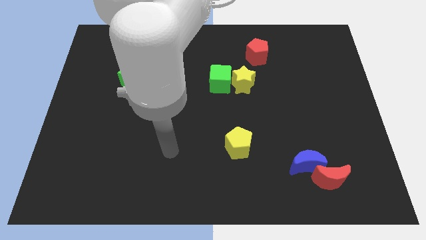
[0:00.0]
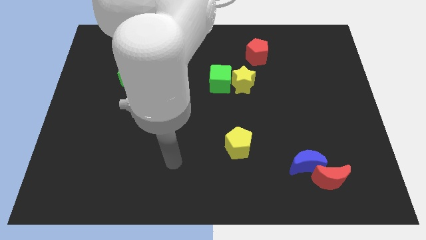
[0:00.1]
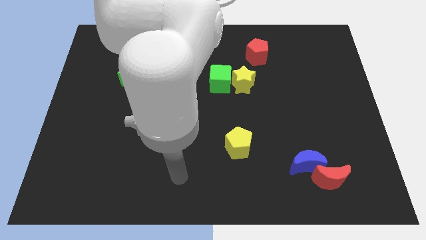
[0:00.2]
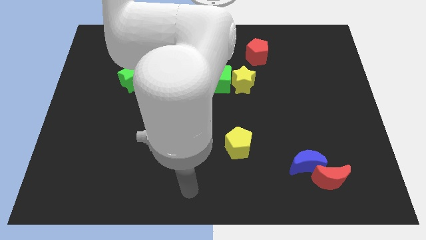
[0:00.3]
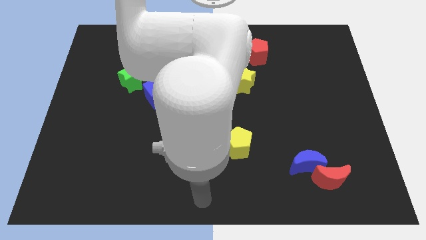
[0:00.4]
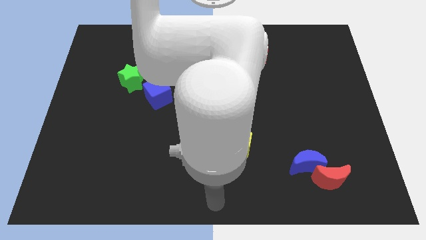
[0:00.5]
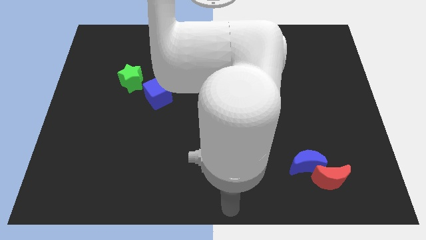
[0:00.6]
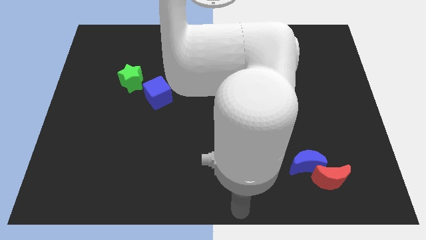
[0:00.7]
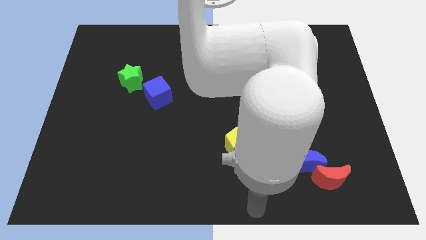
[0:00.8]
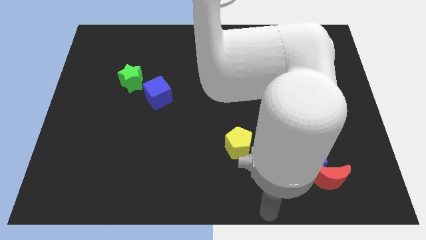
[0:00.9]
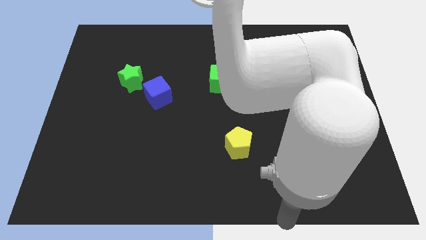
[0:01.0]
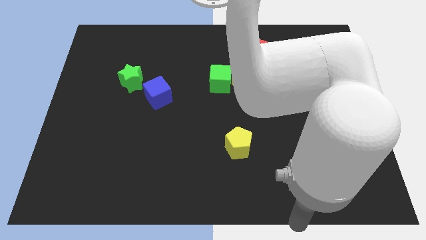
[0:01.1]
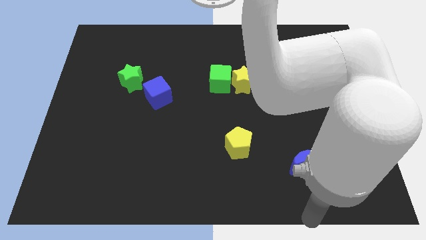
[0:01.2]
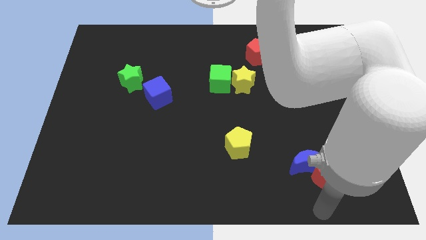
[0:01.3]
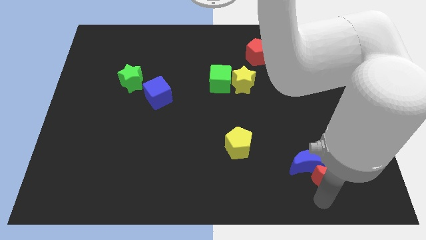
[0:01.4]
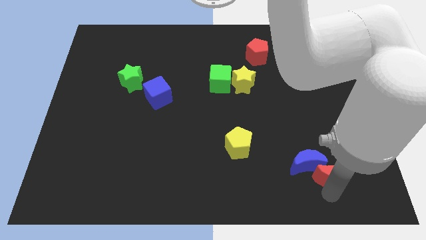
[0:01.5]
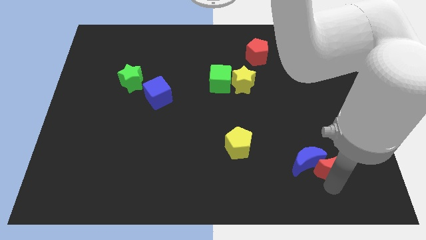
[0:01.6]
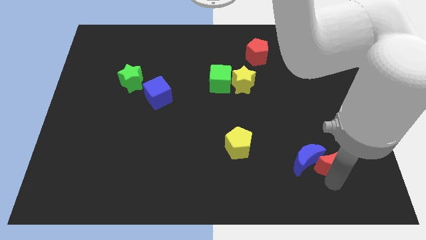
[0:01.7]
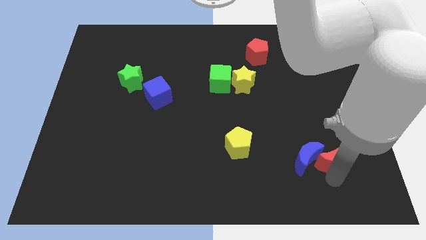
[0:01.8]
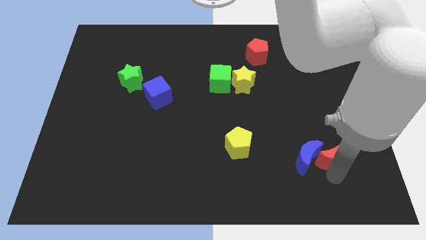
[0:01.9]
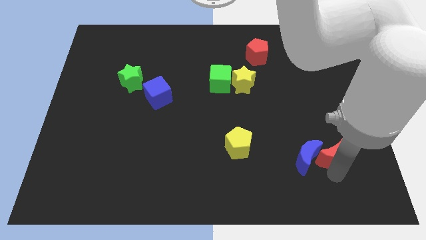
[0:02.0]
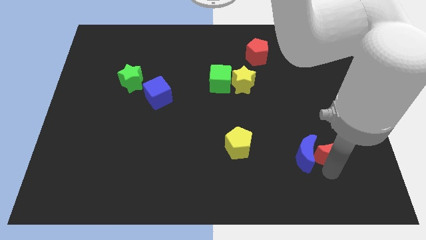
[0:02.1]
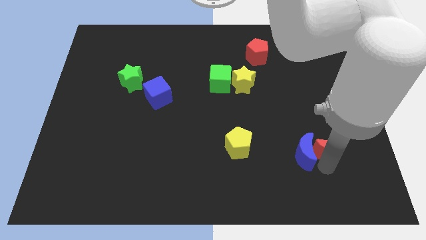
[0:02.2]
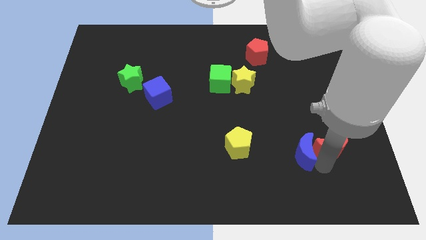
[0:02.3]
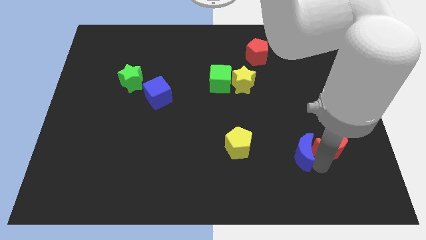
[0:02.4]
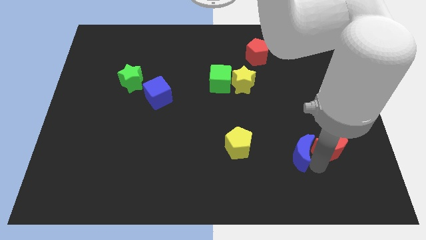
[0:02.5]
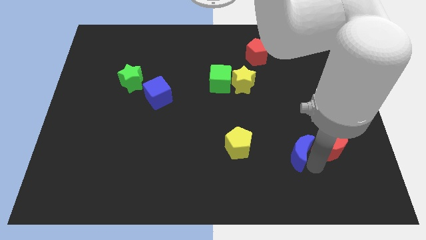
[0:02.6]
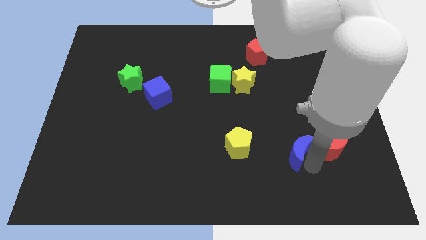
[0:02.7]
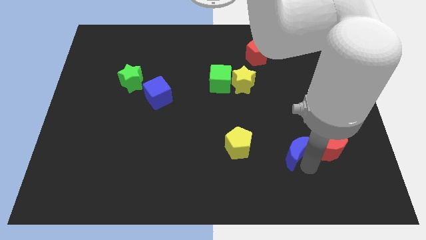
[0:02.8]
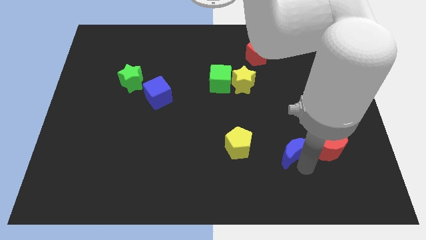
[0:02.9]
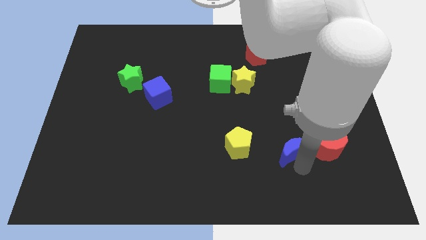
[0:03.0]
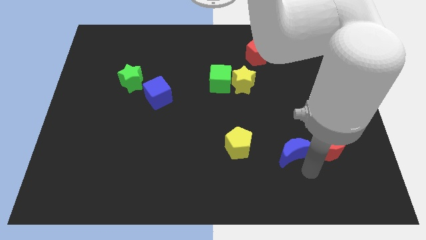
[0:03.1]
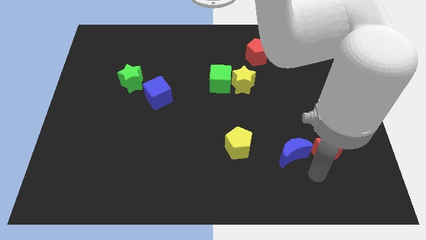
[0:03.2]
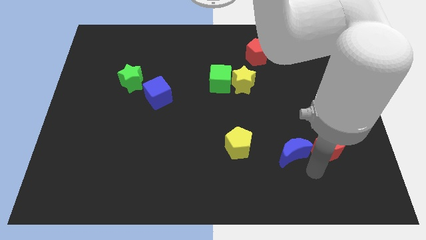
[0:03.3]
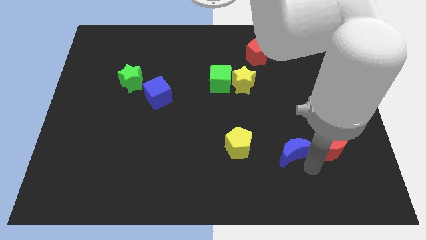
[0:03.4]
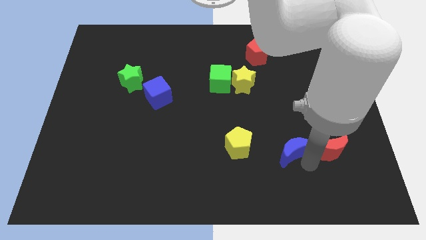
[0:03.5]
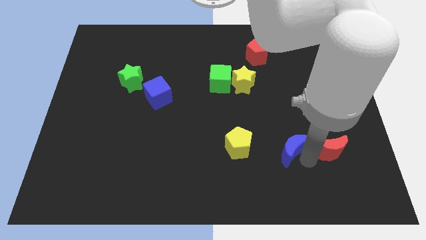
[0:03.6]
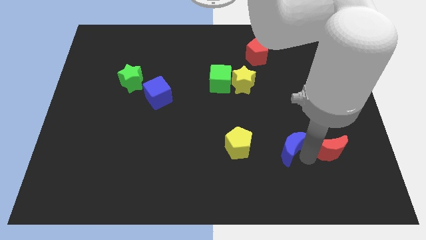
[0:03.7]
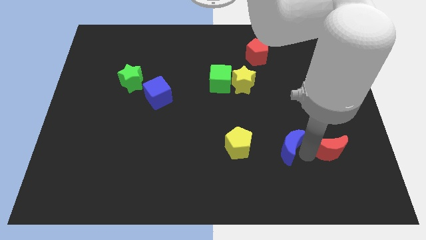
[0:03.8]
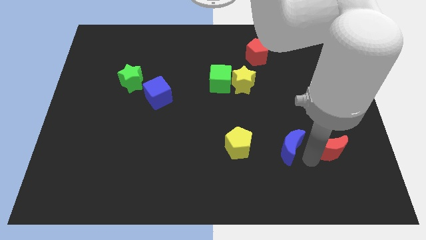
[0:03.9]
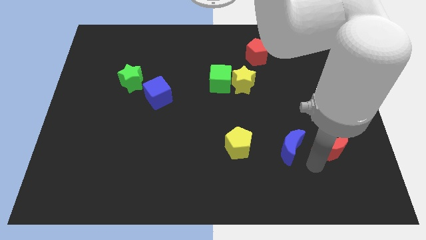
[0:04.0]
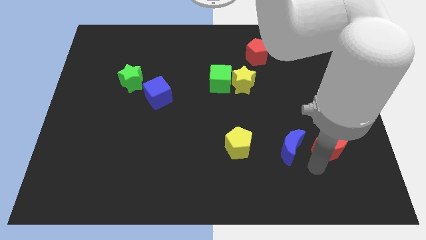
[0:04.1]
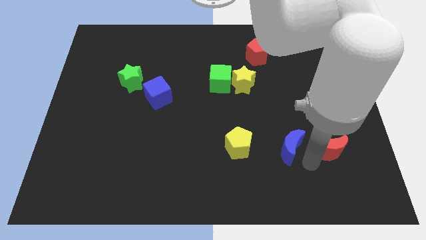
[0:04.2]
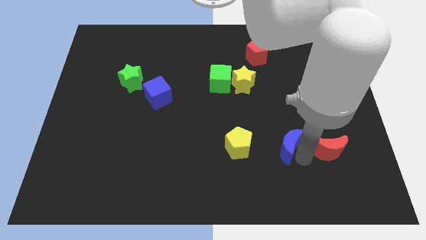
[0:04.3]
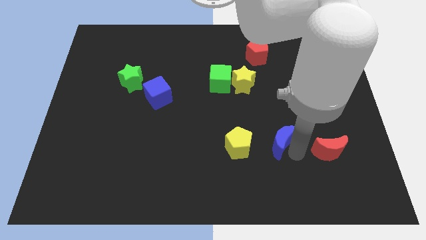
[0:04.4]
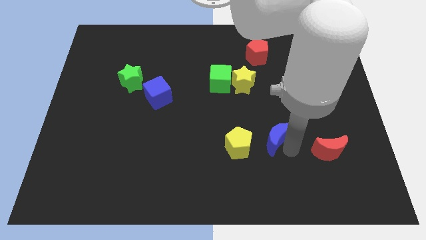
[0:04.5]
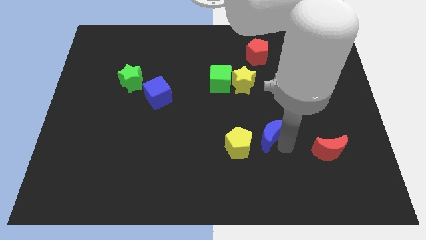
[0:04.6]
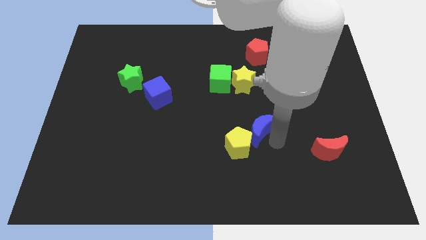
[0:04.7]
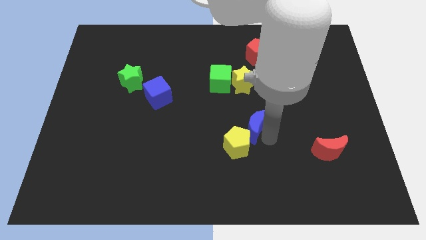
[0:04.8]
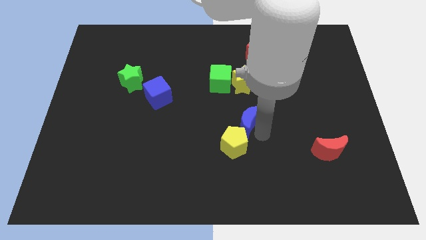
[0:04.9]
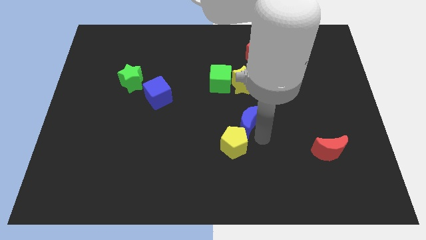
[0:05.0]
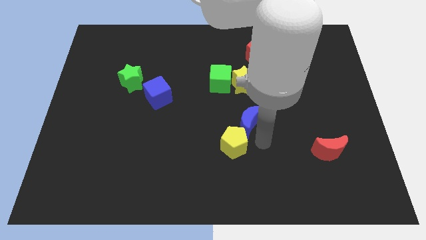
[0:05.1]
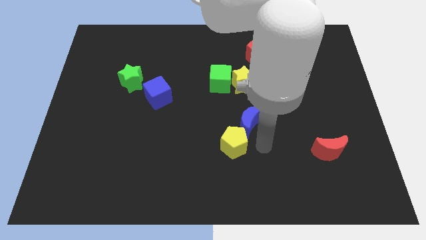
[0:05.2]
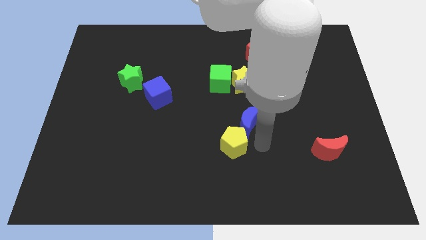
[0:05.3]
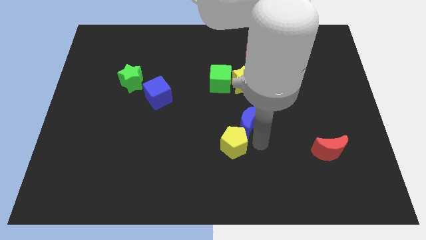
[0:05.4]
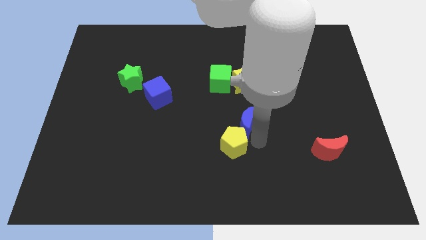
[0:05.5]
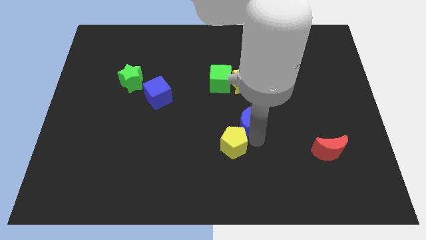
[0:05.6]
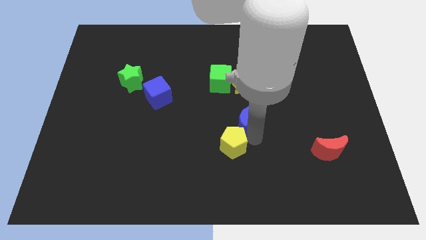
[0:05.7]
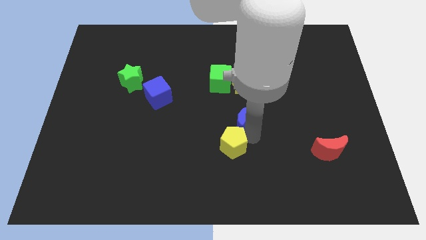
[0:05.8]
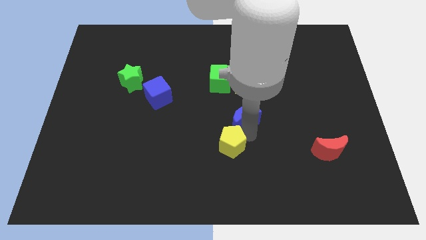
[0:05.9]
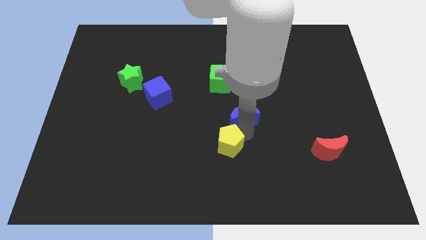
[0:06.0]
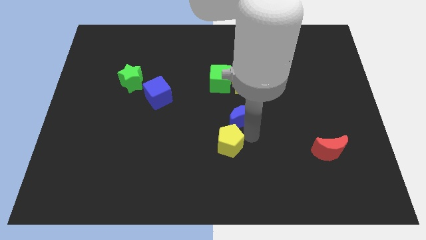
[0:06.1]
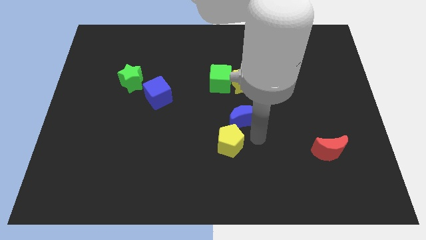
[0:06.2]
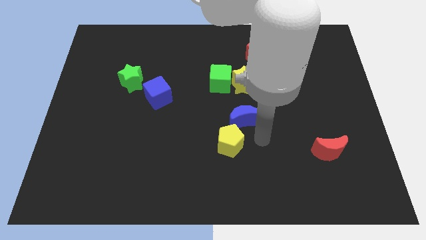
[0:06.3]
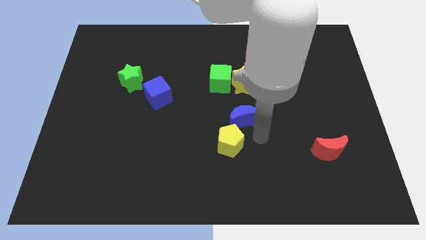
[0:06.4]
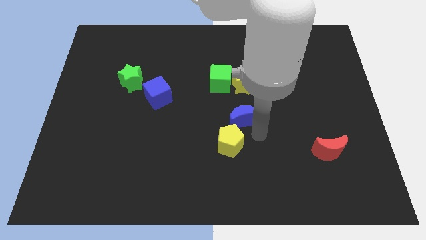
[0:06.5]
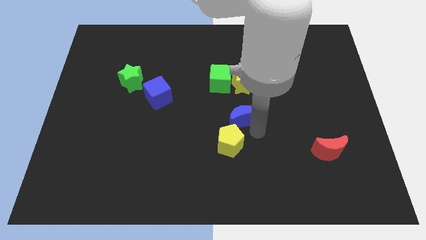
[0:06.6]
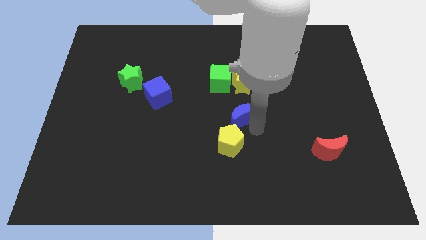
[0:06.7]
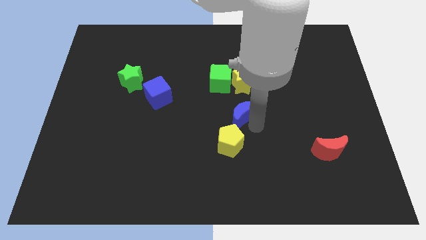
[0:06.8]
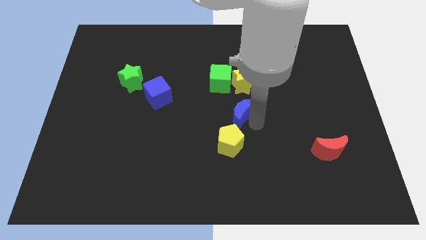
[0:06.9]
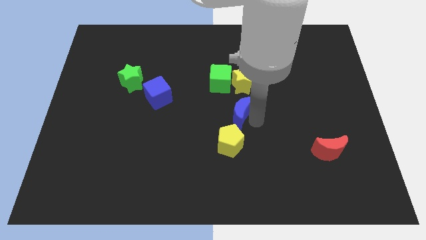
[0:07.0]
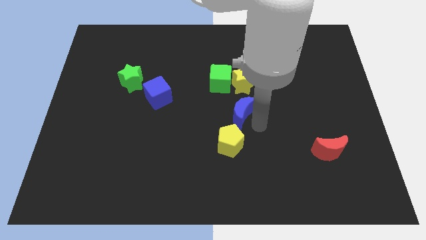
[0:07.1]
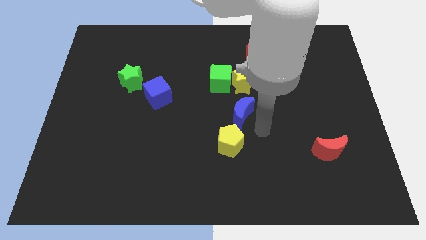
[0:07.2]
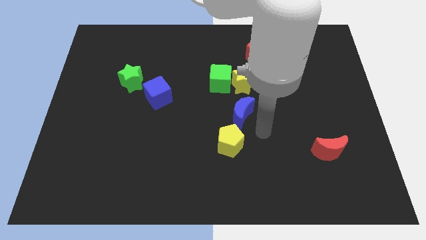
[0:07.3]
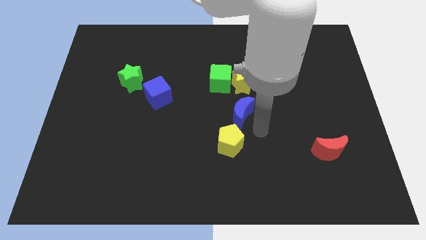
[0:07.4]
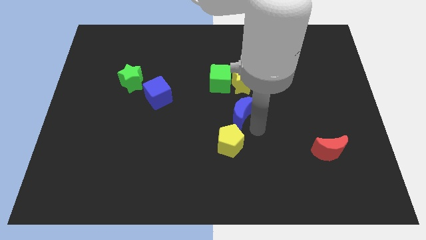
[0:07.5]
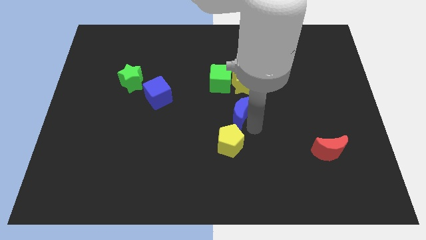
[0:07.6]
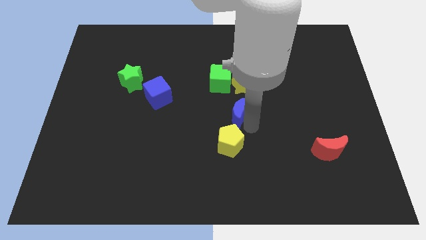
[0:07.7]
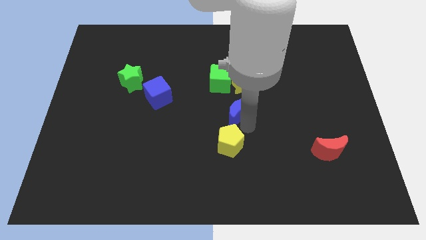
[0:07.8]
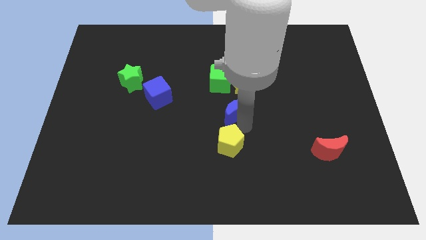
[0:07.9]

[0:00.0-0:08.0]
slide the blue moon to the bottom left side of the yellow star
